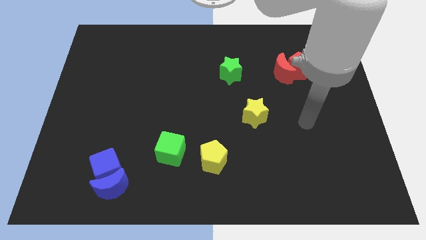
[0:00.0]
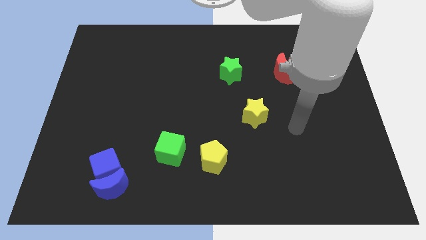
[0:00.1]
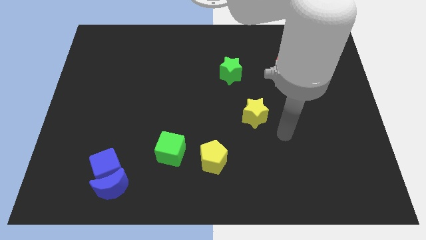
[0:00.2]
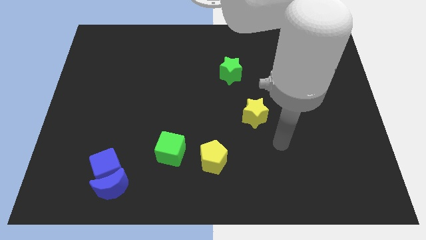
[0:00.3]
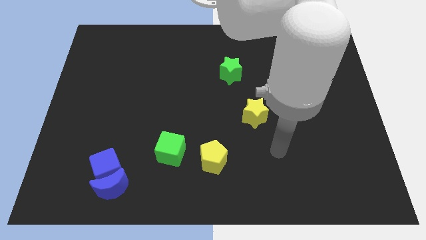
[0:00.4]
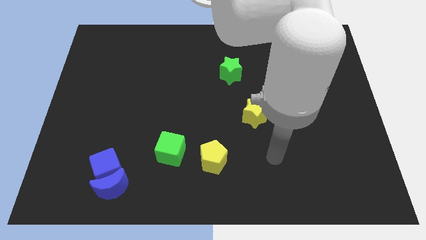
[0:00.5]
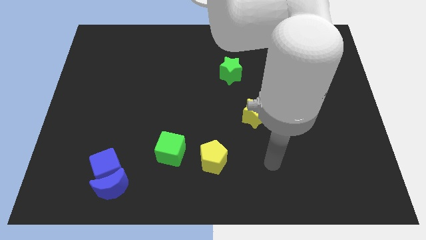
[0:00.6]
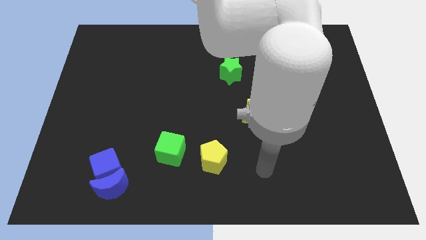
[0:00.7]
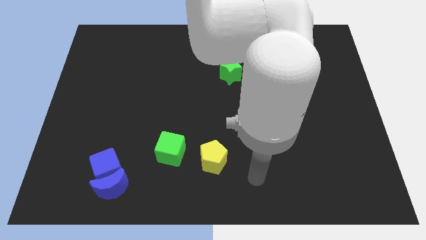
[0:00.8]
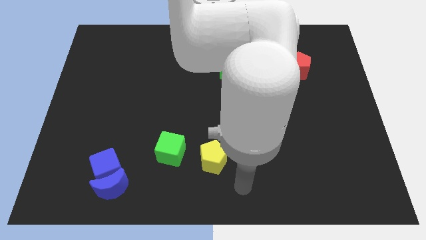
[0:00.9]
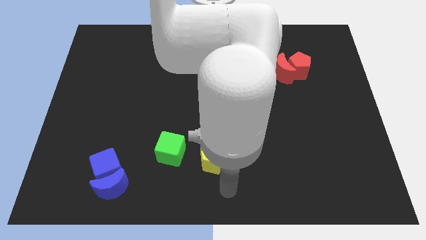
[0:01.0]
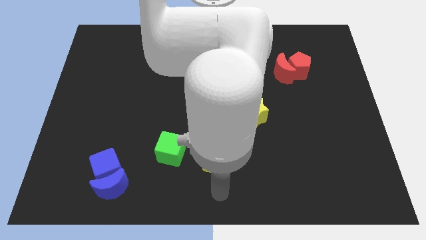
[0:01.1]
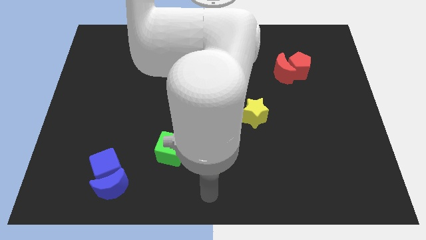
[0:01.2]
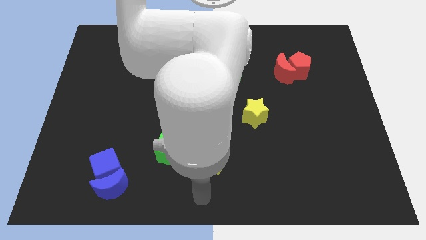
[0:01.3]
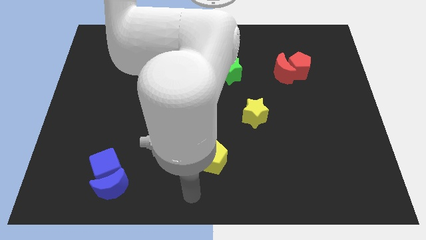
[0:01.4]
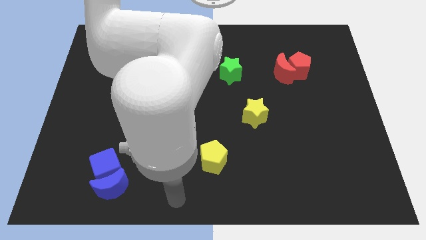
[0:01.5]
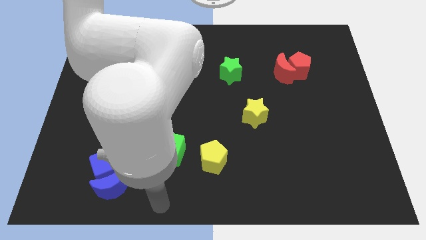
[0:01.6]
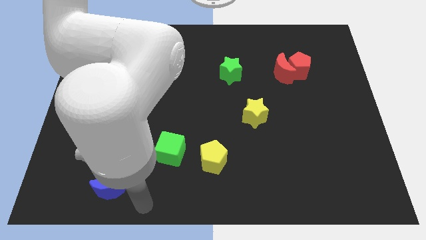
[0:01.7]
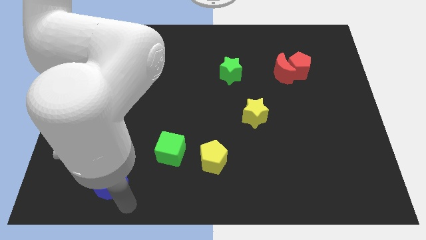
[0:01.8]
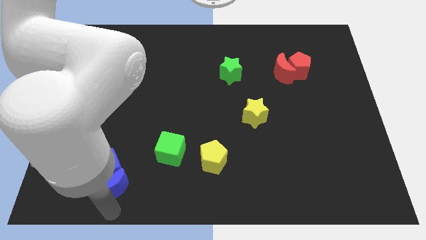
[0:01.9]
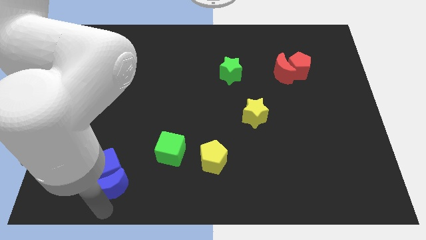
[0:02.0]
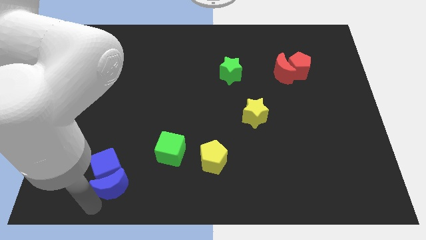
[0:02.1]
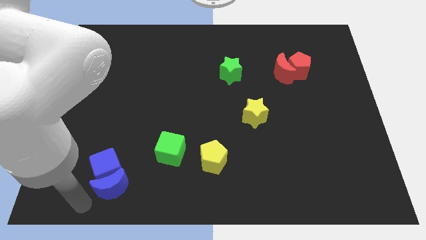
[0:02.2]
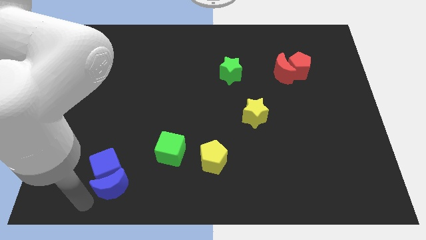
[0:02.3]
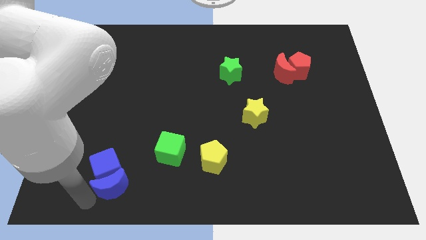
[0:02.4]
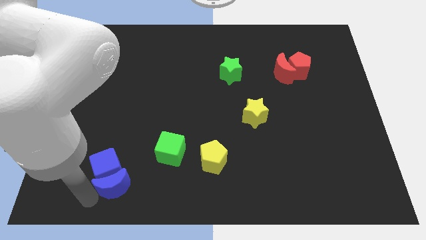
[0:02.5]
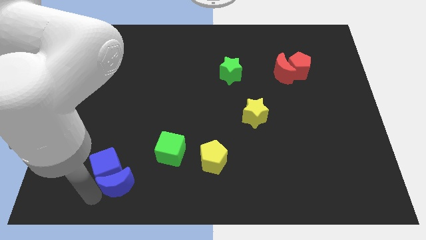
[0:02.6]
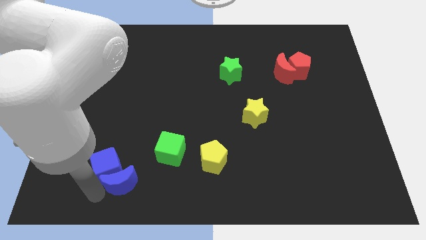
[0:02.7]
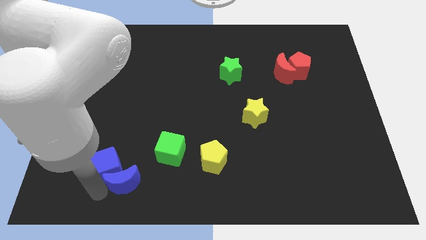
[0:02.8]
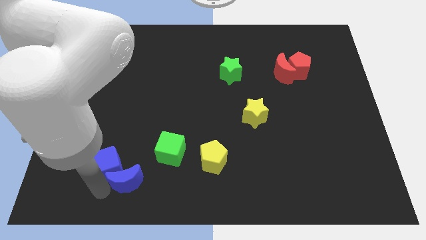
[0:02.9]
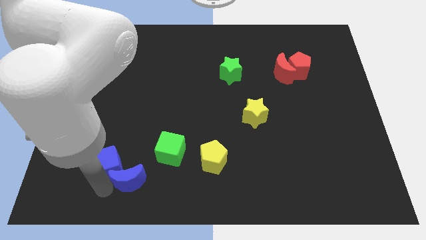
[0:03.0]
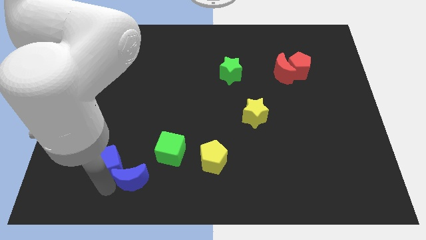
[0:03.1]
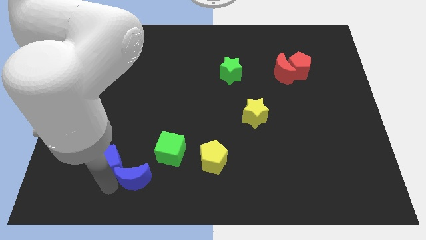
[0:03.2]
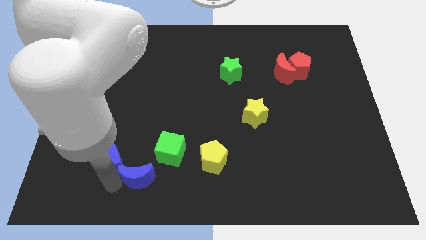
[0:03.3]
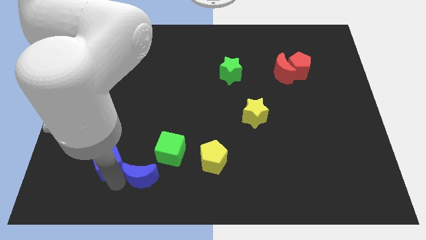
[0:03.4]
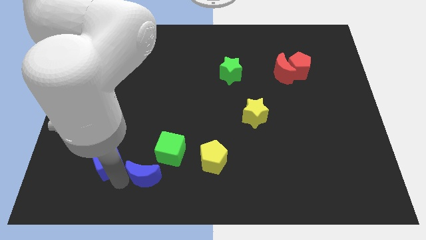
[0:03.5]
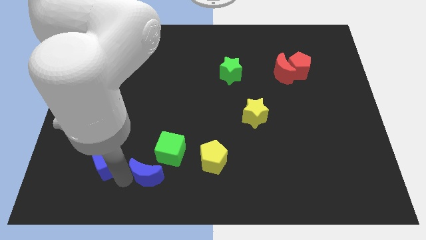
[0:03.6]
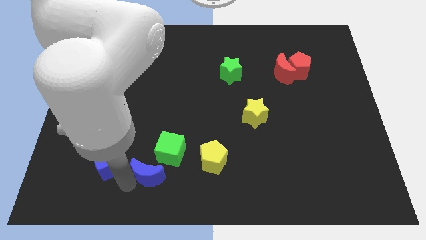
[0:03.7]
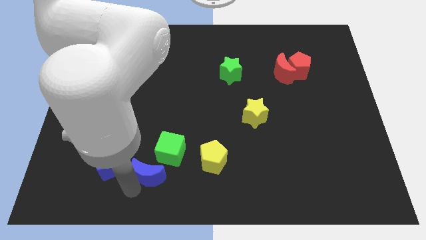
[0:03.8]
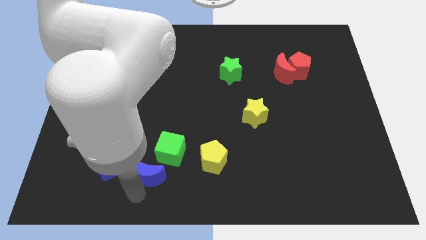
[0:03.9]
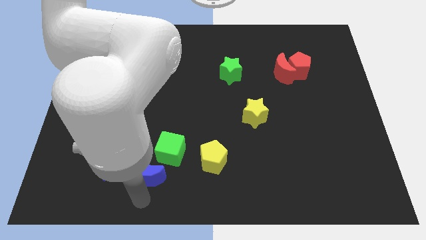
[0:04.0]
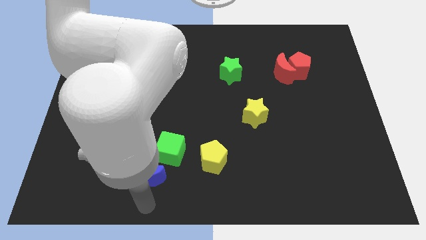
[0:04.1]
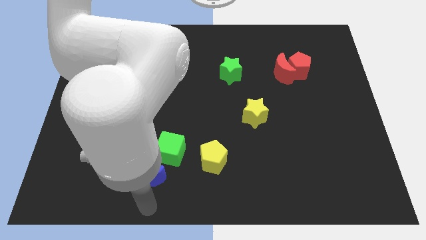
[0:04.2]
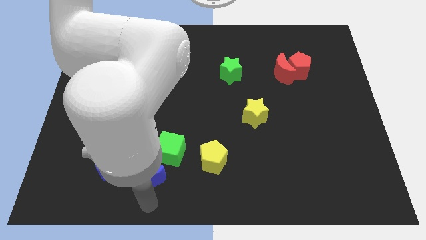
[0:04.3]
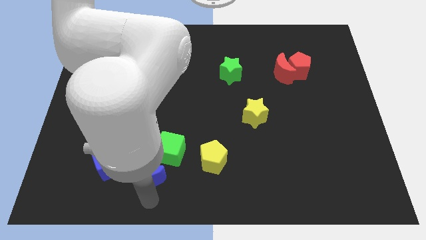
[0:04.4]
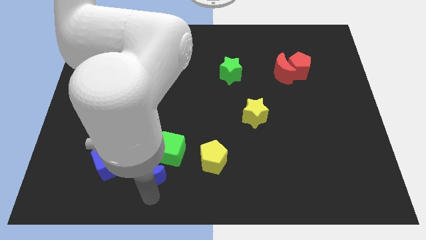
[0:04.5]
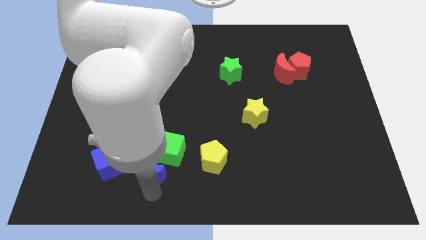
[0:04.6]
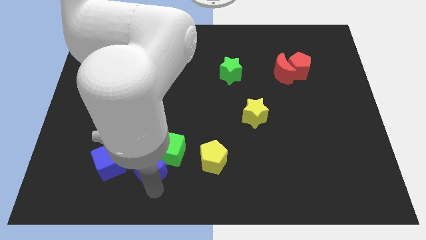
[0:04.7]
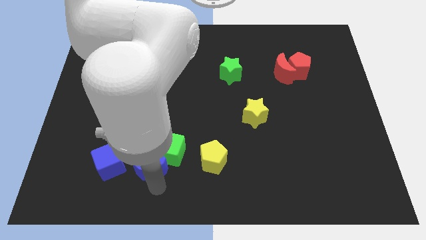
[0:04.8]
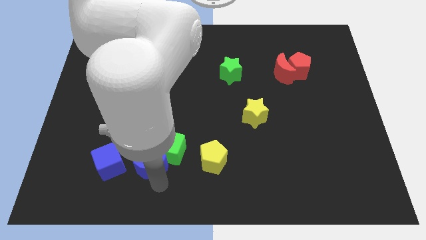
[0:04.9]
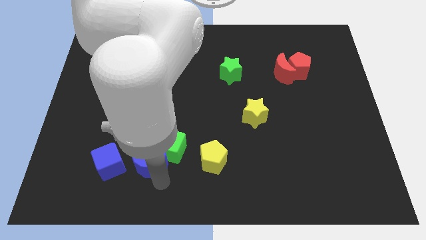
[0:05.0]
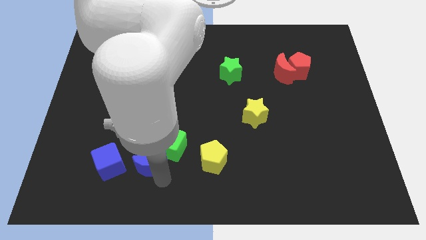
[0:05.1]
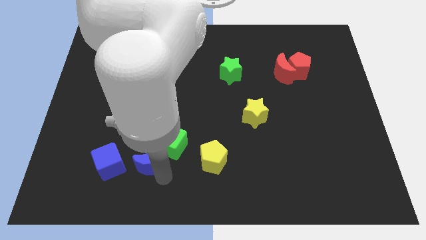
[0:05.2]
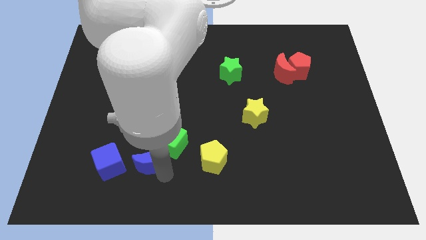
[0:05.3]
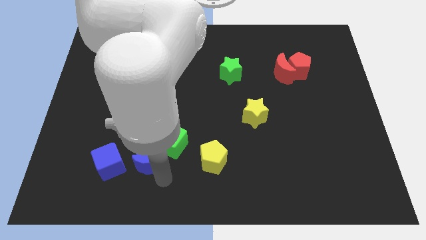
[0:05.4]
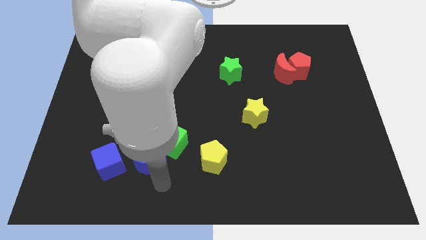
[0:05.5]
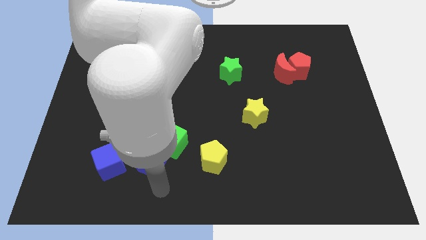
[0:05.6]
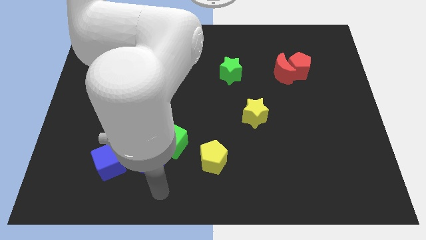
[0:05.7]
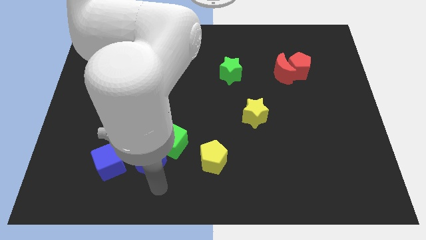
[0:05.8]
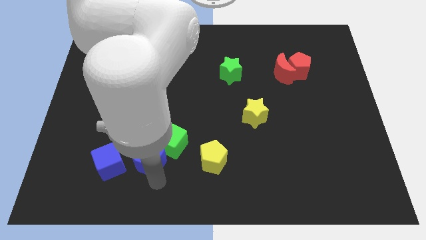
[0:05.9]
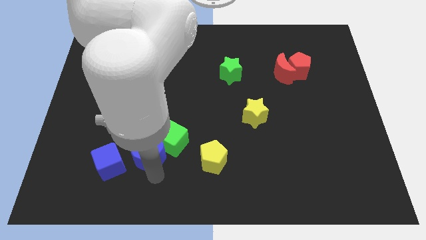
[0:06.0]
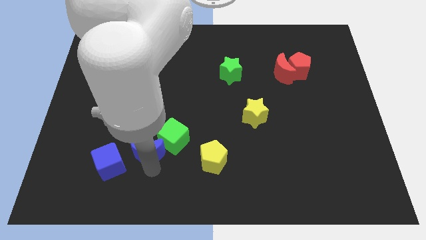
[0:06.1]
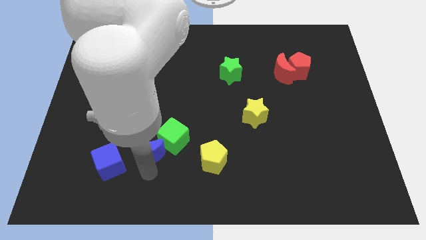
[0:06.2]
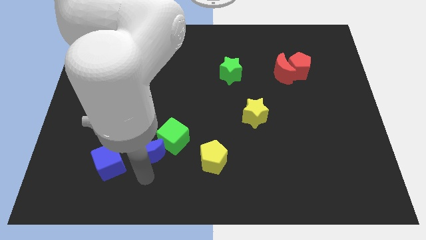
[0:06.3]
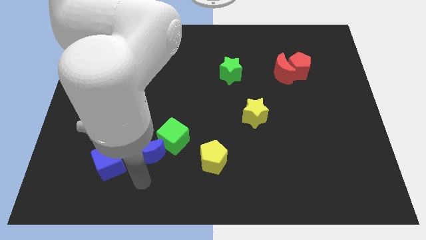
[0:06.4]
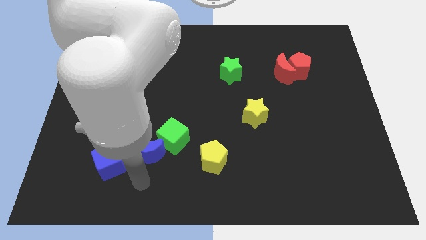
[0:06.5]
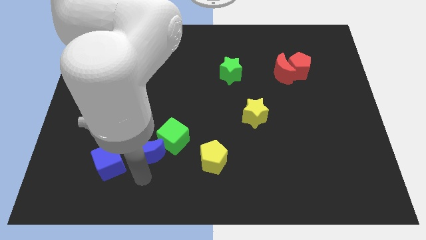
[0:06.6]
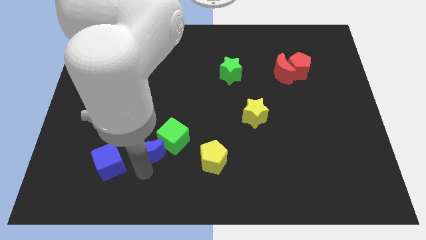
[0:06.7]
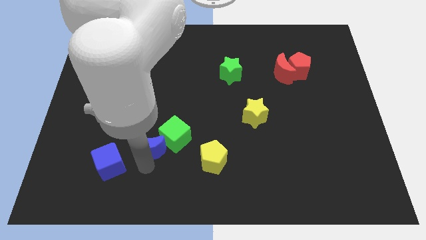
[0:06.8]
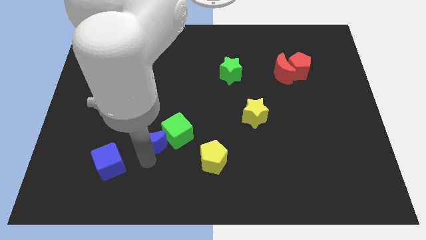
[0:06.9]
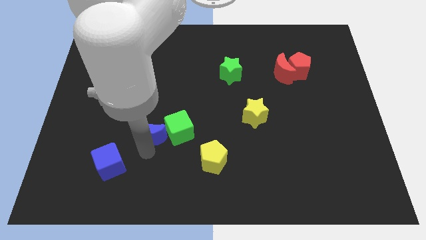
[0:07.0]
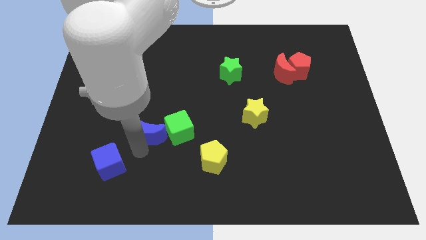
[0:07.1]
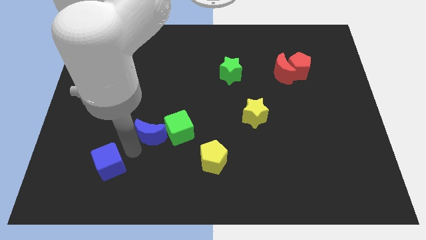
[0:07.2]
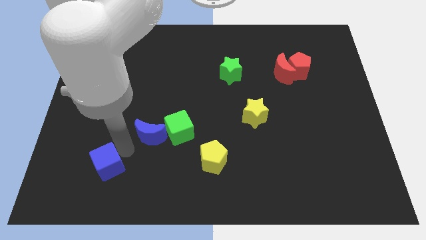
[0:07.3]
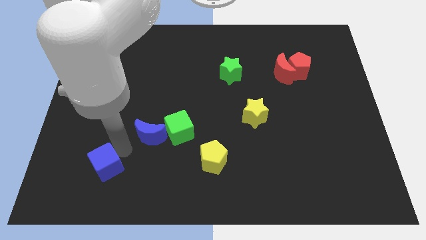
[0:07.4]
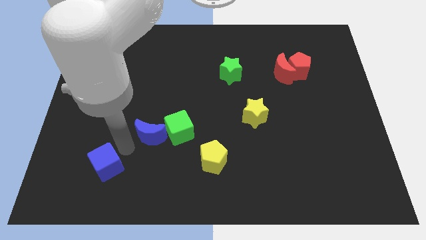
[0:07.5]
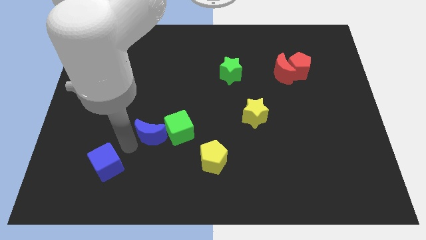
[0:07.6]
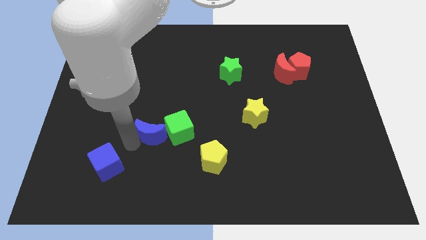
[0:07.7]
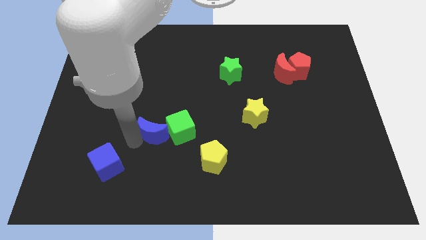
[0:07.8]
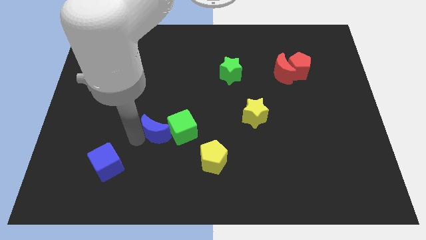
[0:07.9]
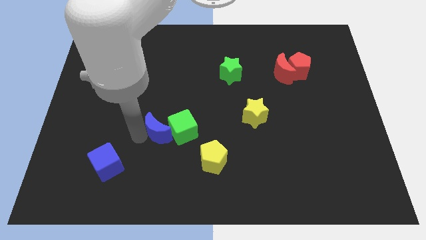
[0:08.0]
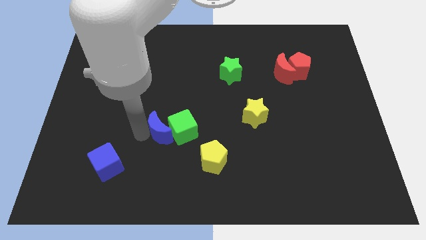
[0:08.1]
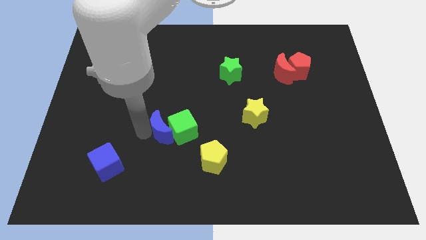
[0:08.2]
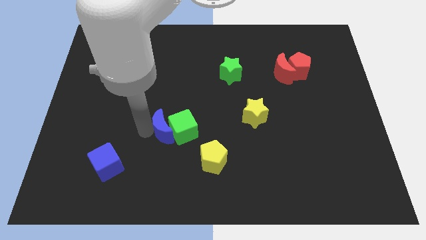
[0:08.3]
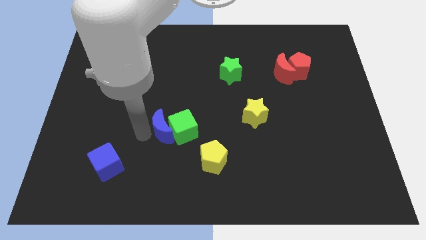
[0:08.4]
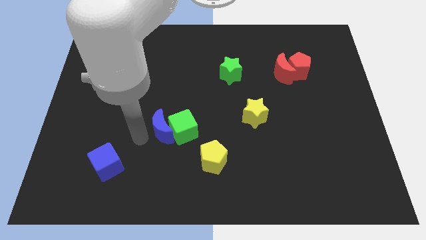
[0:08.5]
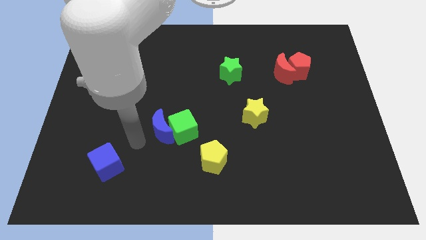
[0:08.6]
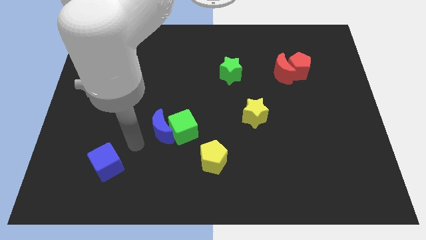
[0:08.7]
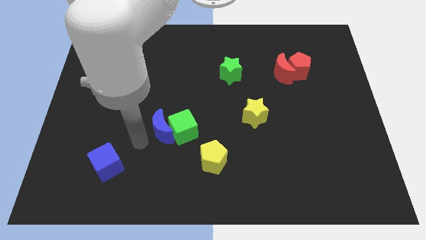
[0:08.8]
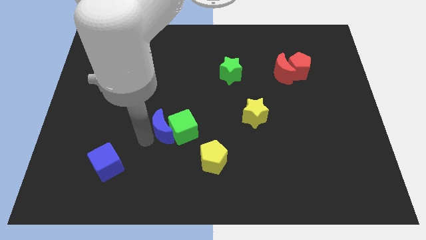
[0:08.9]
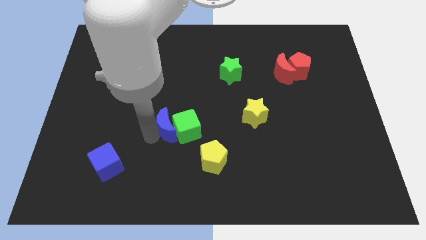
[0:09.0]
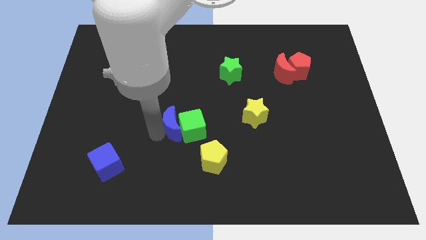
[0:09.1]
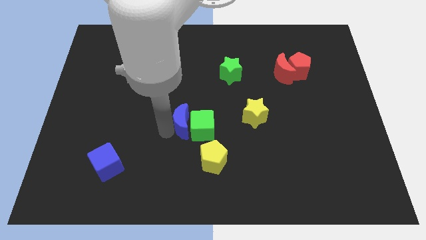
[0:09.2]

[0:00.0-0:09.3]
slide the blue moon diagonally up and to the right
